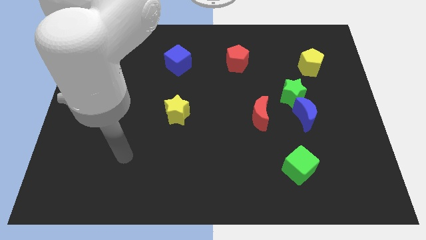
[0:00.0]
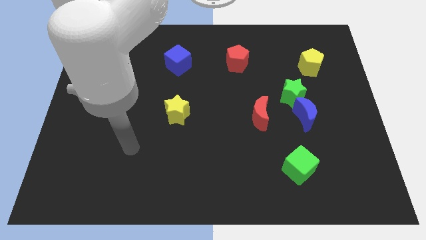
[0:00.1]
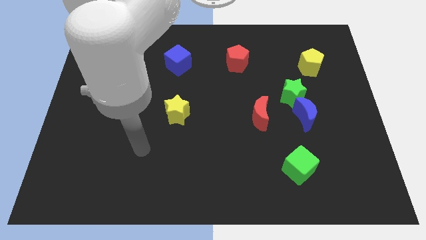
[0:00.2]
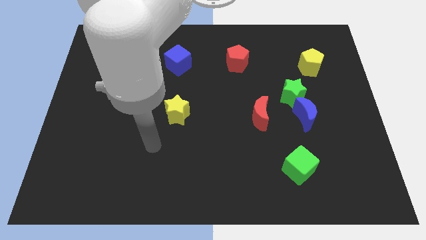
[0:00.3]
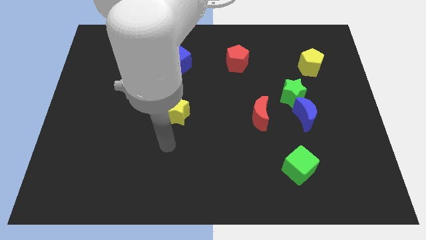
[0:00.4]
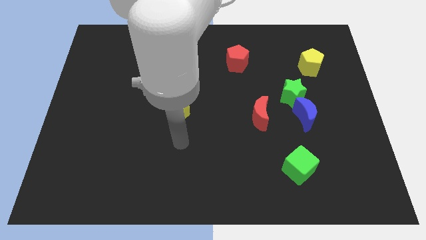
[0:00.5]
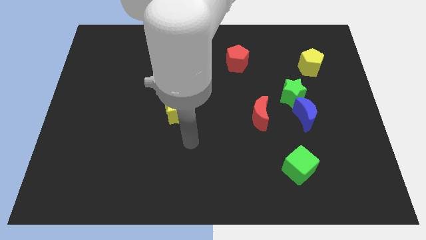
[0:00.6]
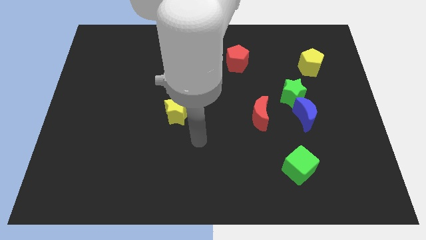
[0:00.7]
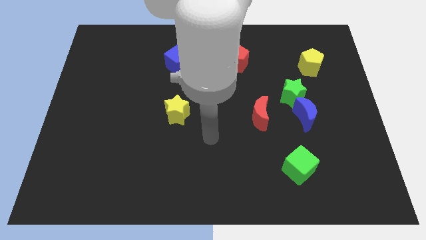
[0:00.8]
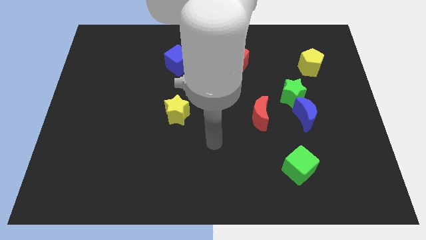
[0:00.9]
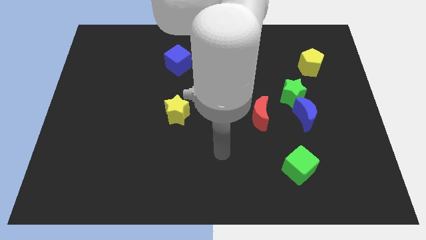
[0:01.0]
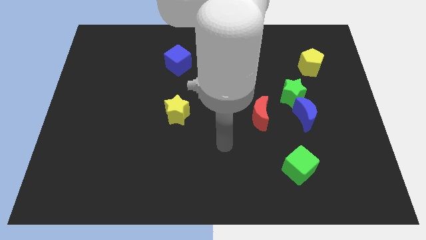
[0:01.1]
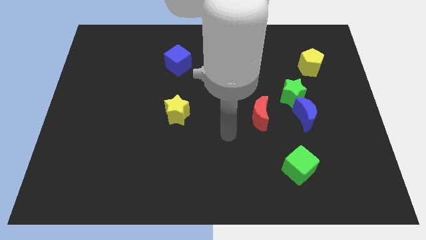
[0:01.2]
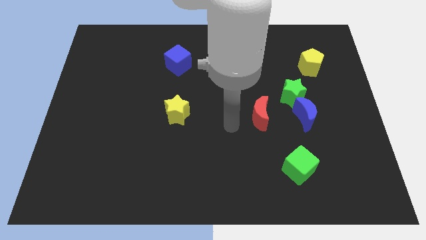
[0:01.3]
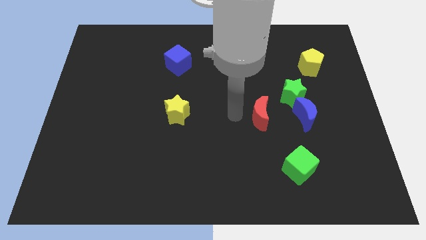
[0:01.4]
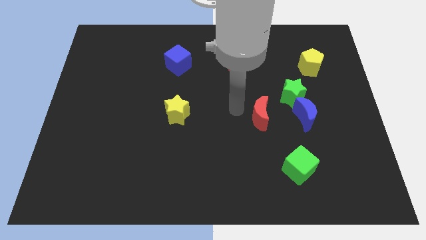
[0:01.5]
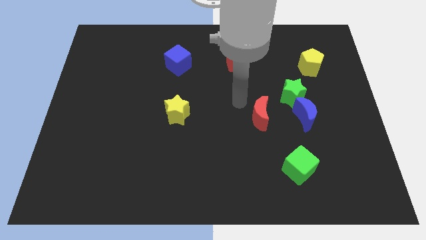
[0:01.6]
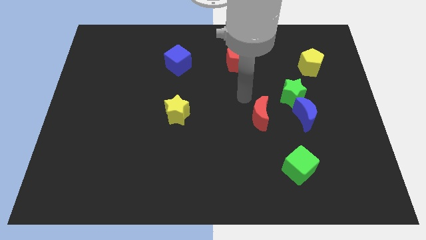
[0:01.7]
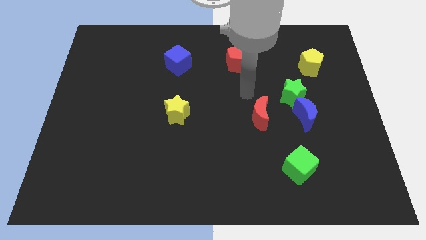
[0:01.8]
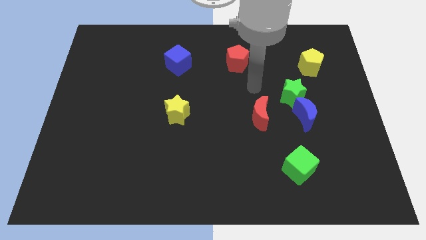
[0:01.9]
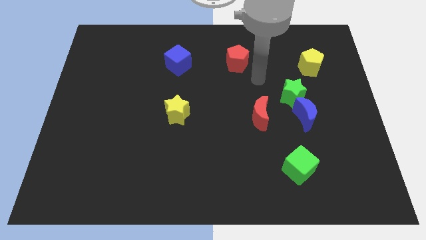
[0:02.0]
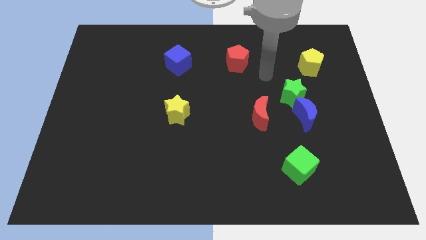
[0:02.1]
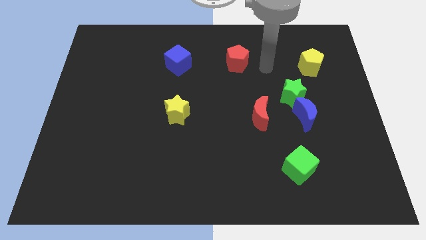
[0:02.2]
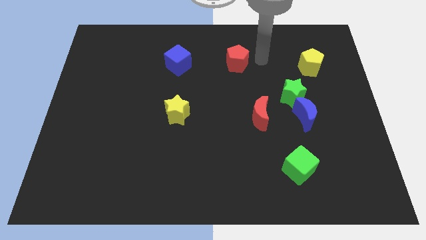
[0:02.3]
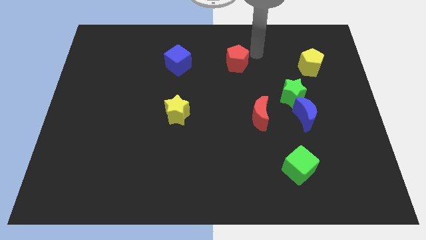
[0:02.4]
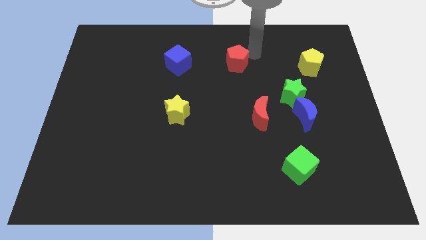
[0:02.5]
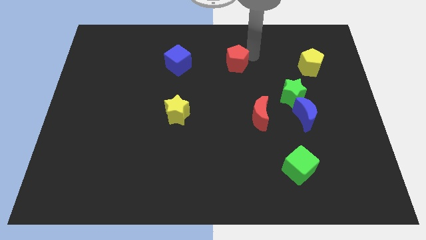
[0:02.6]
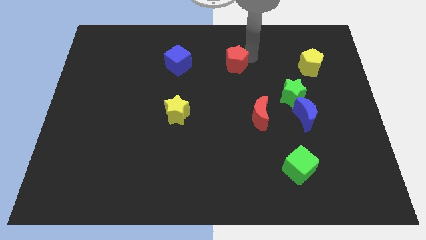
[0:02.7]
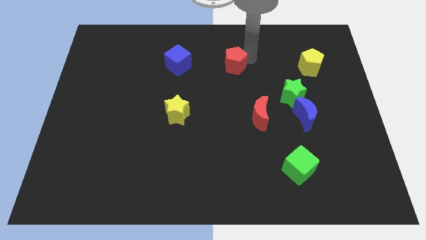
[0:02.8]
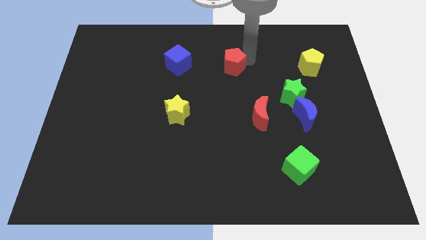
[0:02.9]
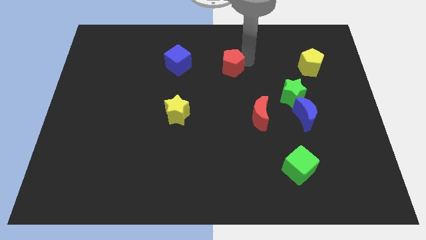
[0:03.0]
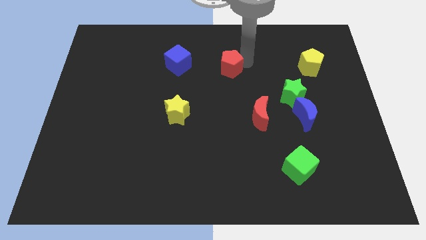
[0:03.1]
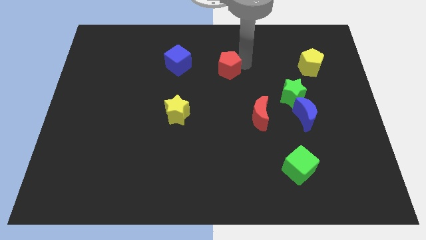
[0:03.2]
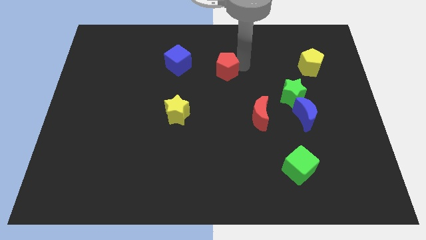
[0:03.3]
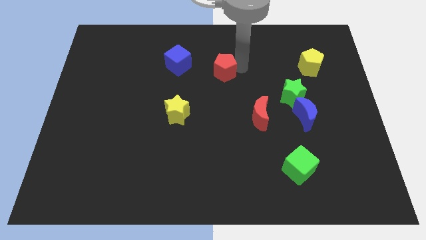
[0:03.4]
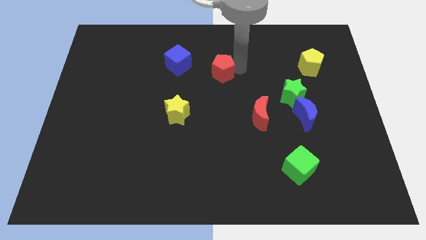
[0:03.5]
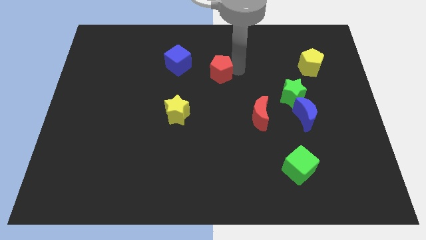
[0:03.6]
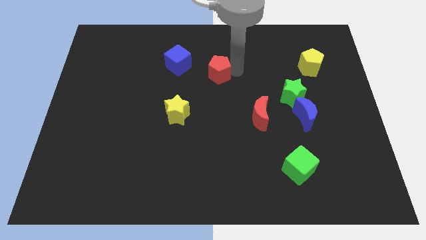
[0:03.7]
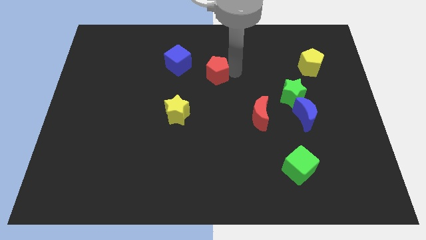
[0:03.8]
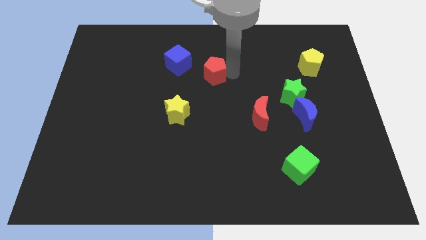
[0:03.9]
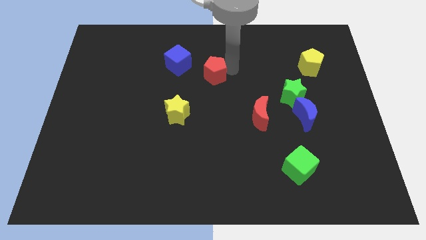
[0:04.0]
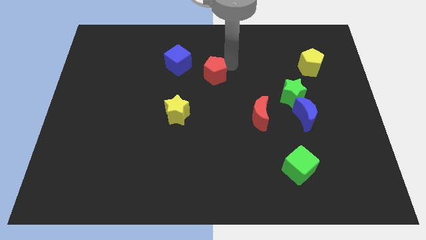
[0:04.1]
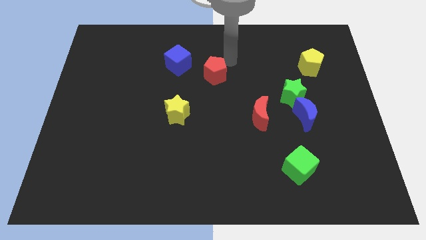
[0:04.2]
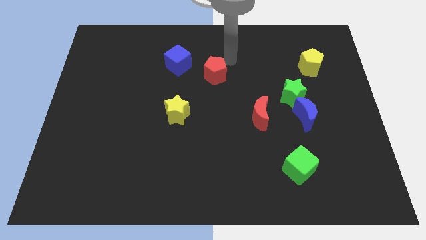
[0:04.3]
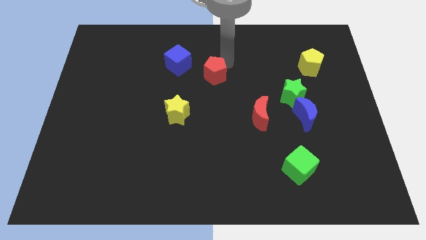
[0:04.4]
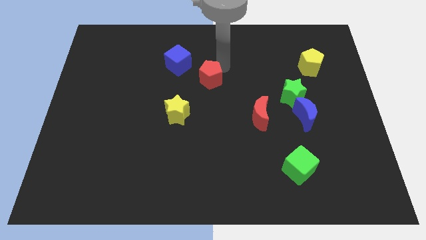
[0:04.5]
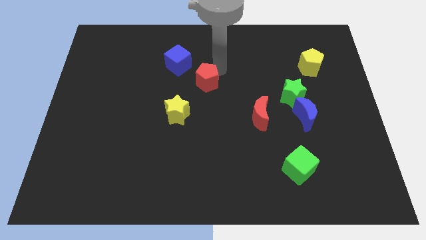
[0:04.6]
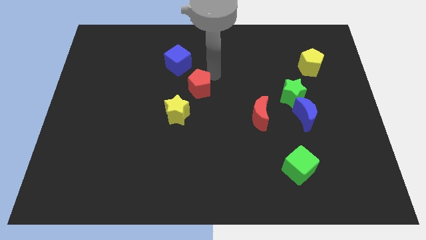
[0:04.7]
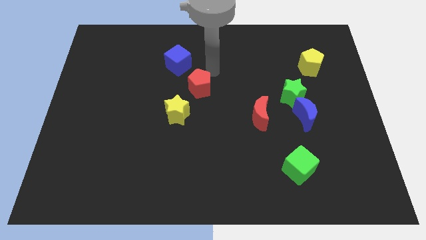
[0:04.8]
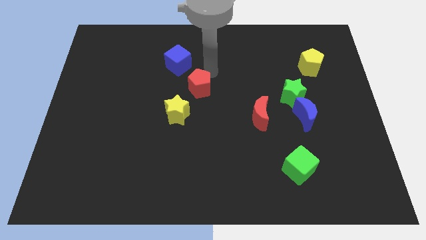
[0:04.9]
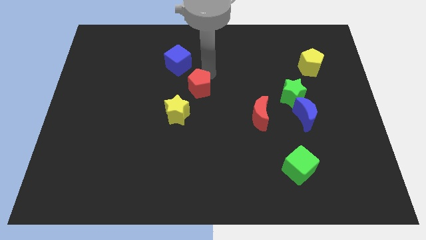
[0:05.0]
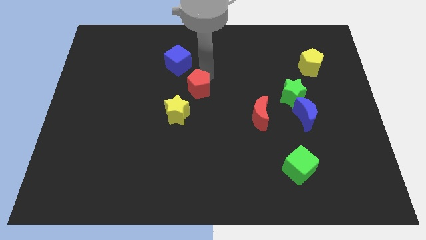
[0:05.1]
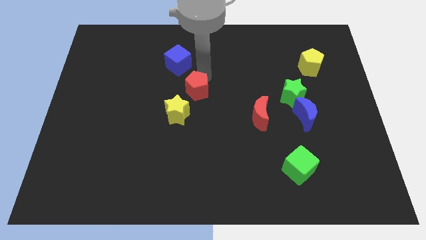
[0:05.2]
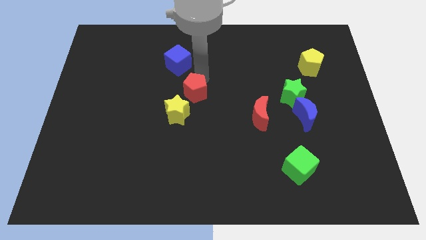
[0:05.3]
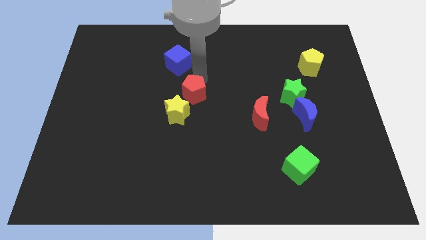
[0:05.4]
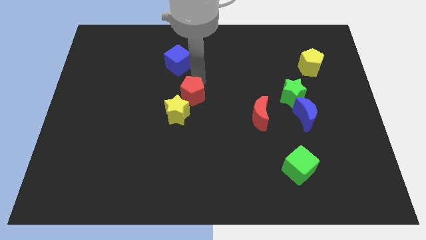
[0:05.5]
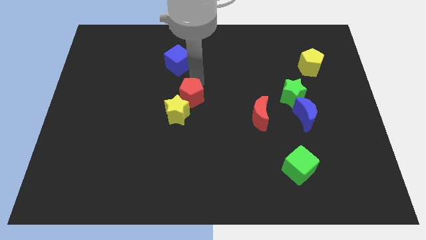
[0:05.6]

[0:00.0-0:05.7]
slide the red pentagon next to the yellow star

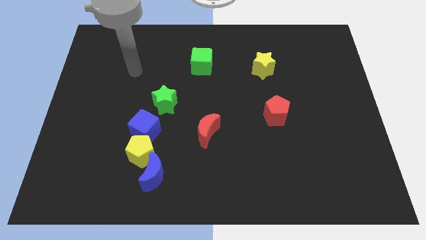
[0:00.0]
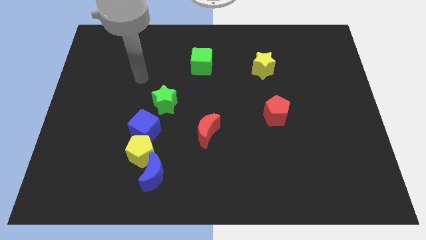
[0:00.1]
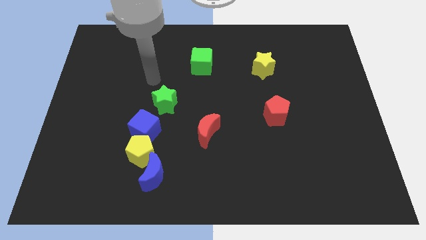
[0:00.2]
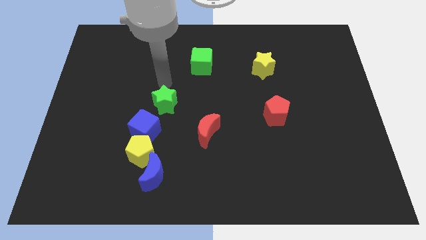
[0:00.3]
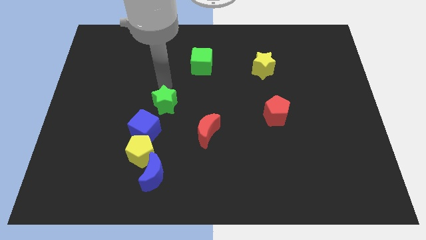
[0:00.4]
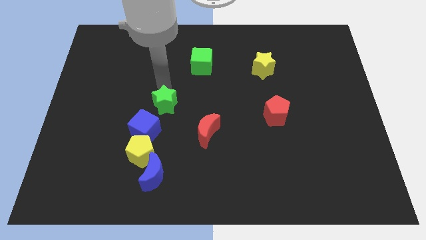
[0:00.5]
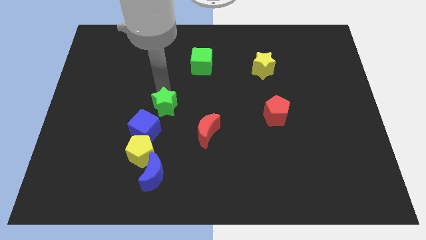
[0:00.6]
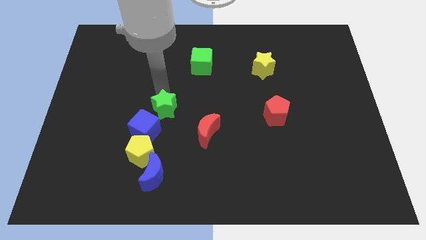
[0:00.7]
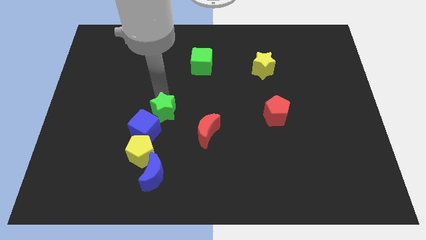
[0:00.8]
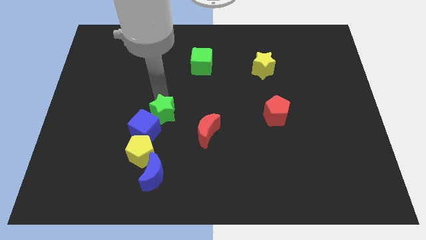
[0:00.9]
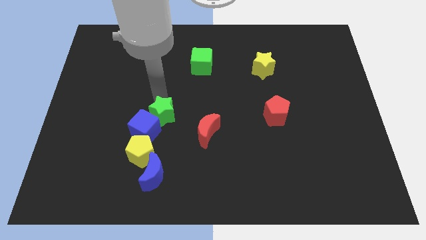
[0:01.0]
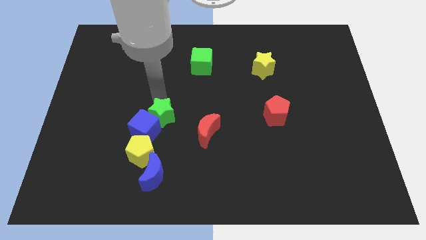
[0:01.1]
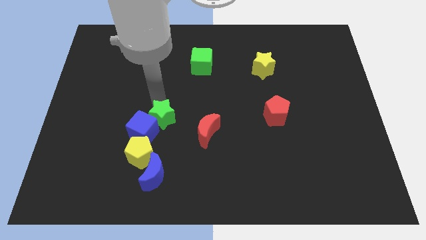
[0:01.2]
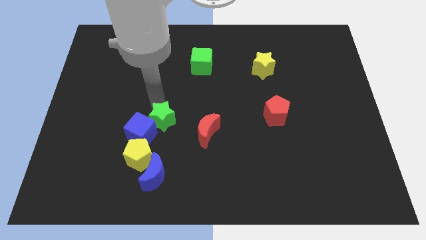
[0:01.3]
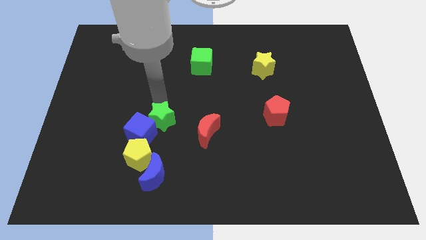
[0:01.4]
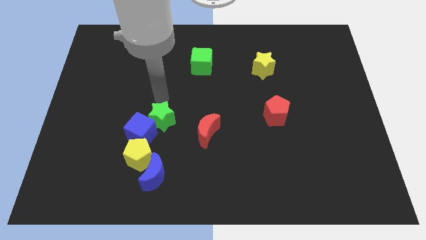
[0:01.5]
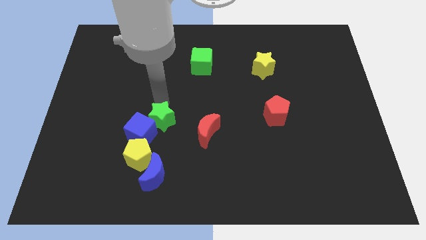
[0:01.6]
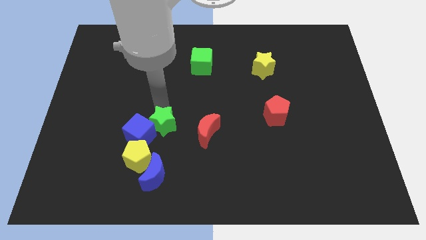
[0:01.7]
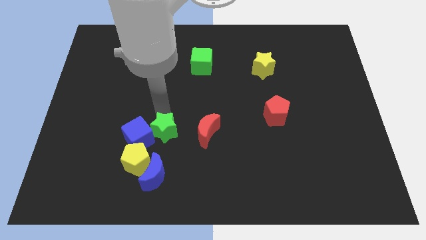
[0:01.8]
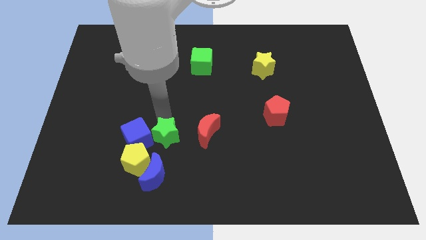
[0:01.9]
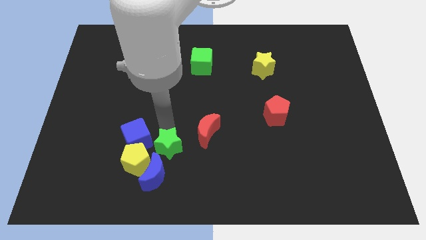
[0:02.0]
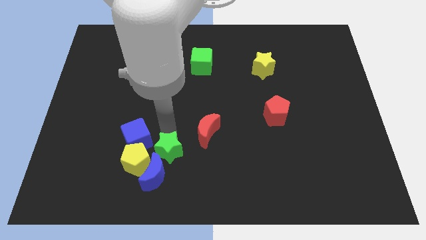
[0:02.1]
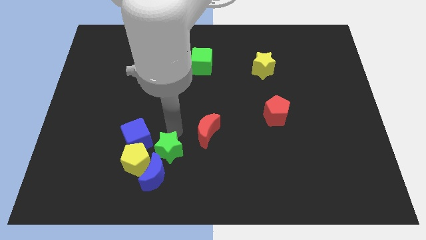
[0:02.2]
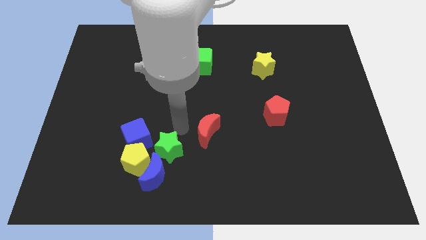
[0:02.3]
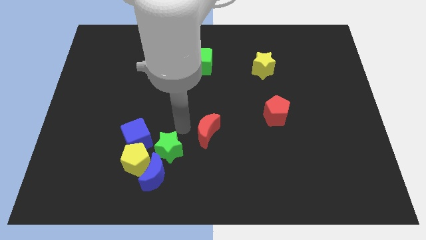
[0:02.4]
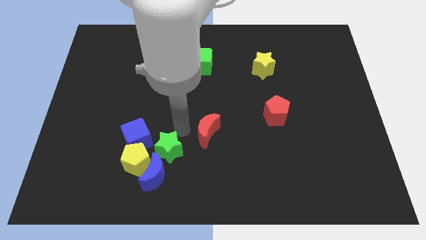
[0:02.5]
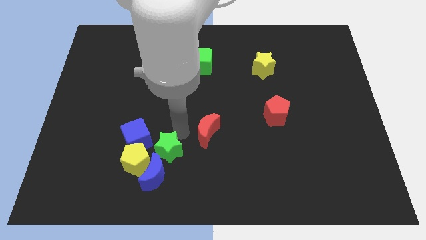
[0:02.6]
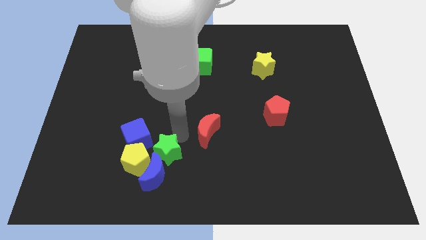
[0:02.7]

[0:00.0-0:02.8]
put the green star next to the blue moon
